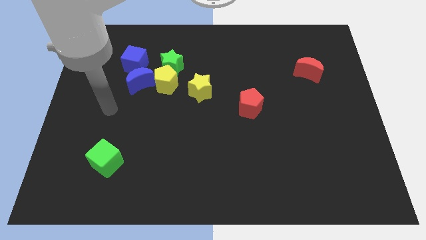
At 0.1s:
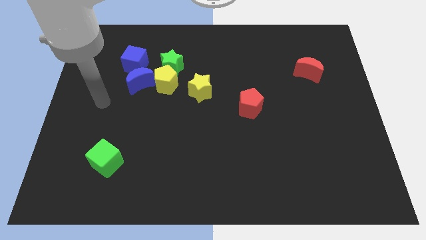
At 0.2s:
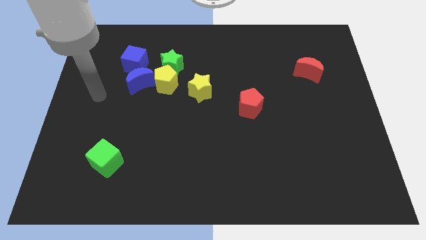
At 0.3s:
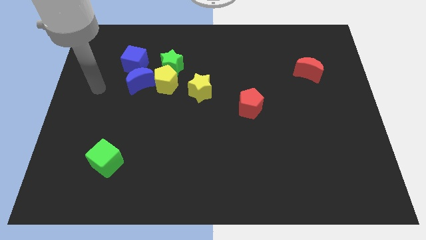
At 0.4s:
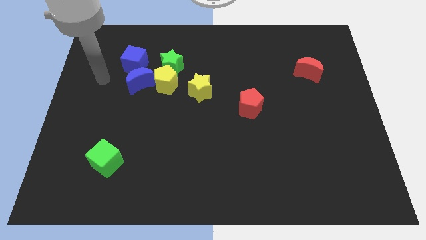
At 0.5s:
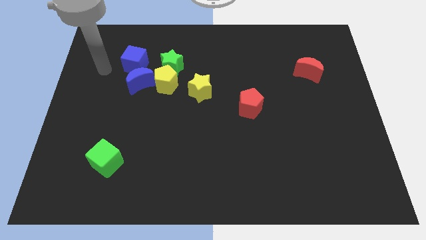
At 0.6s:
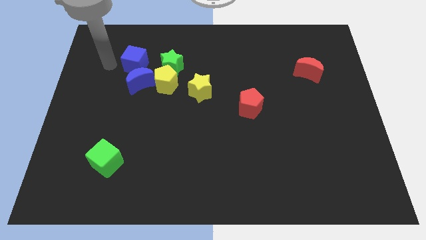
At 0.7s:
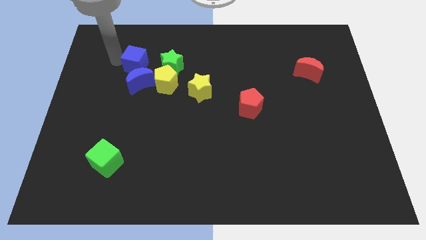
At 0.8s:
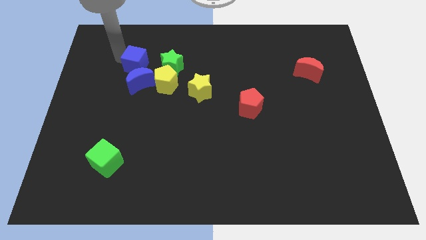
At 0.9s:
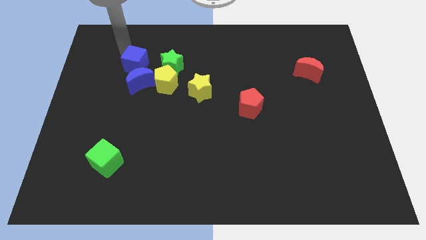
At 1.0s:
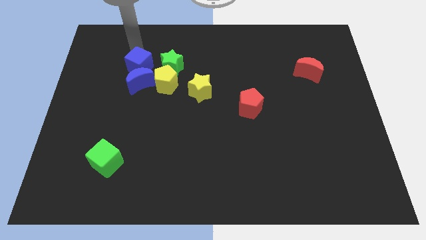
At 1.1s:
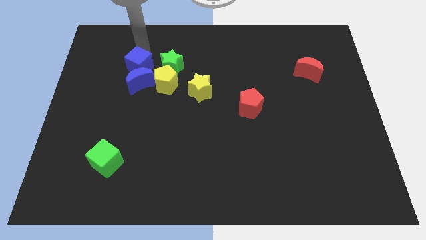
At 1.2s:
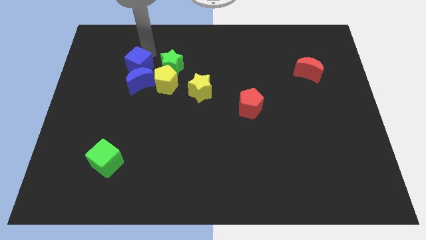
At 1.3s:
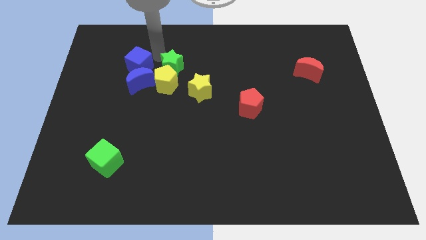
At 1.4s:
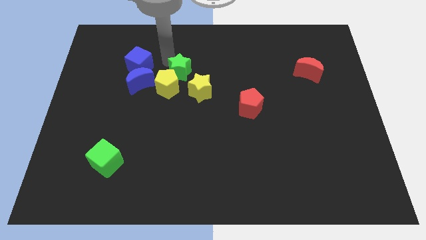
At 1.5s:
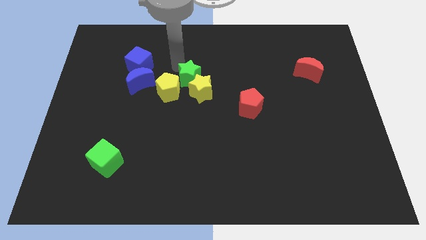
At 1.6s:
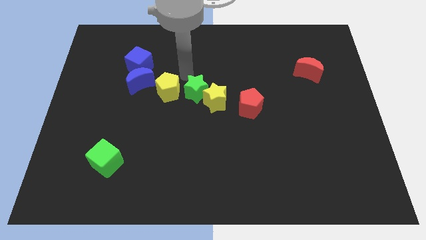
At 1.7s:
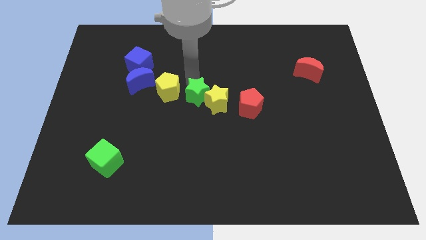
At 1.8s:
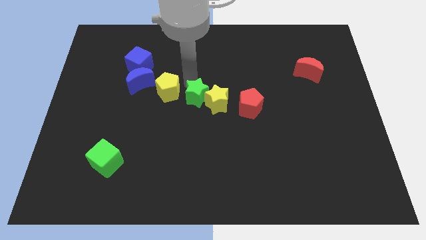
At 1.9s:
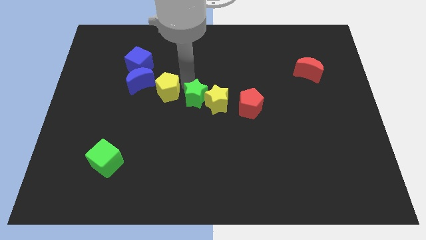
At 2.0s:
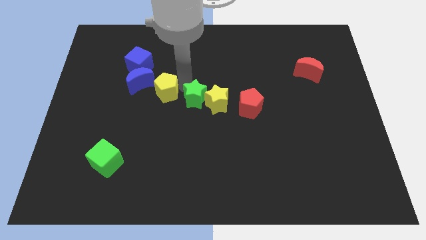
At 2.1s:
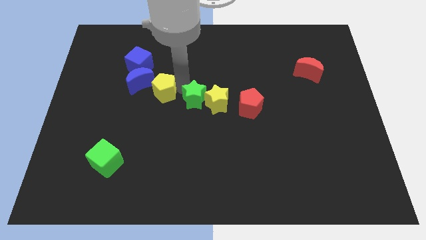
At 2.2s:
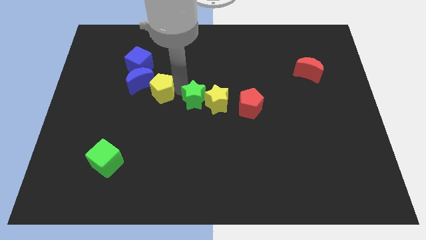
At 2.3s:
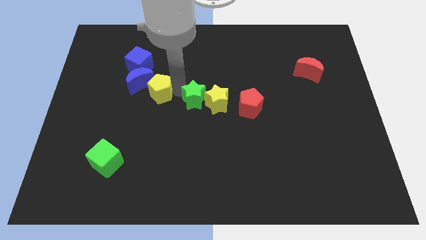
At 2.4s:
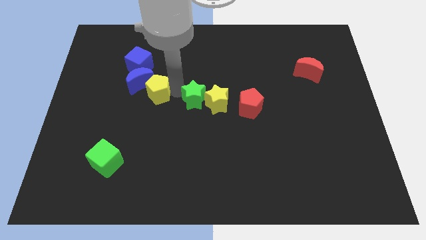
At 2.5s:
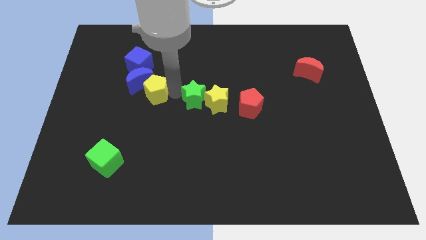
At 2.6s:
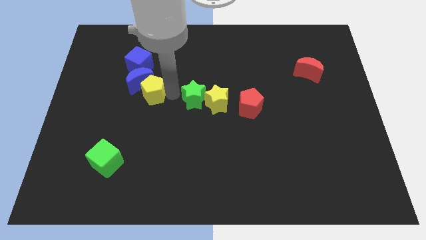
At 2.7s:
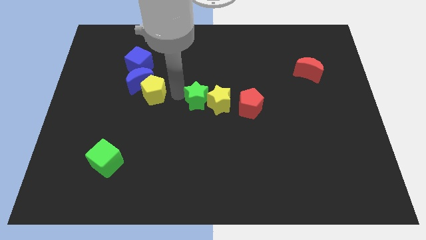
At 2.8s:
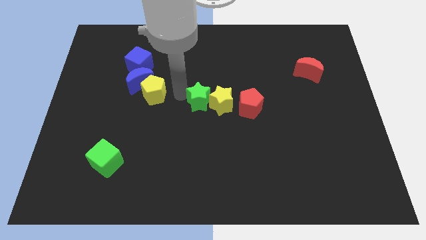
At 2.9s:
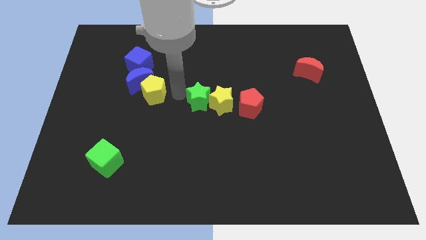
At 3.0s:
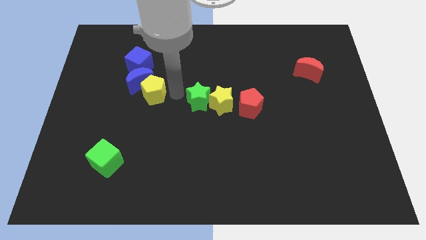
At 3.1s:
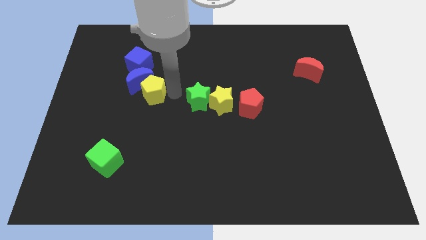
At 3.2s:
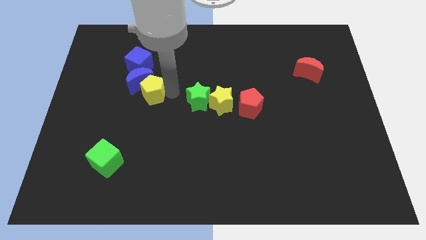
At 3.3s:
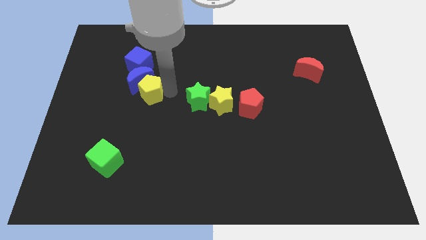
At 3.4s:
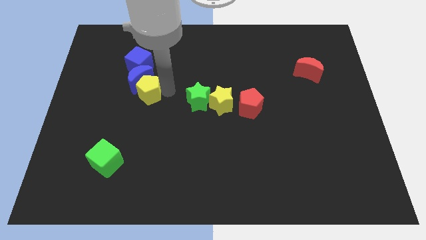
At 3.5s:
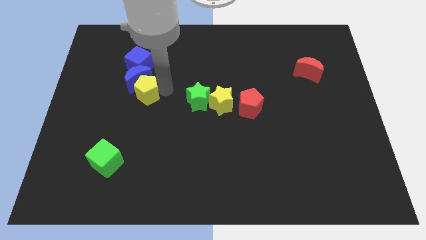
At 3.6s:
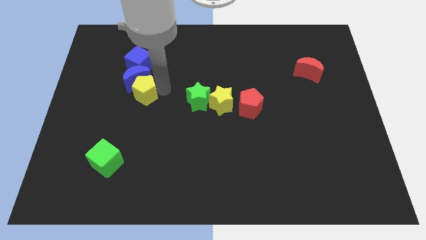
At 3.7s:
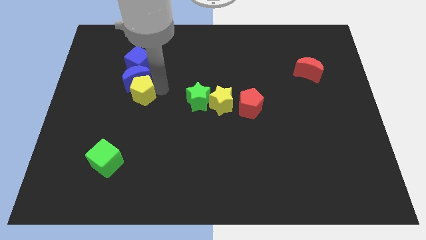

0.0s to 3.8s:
pull the yellow pentagon apart from the clump

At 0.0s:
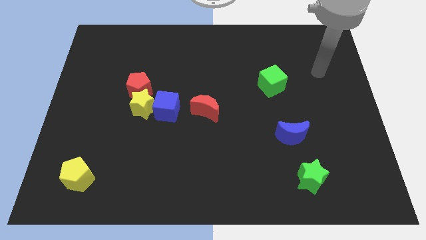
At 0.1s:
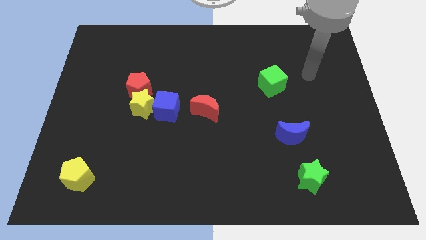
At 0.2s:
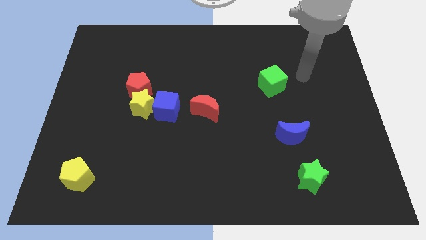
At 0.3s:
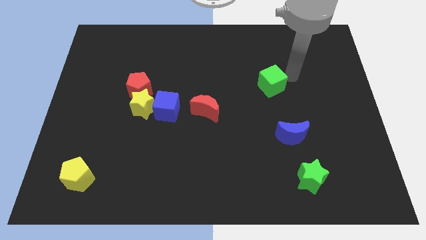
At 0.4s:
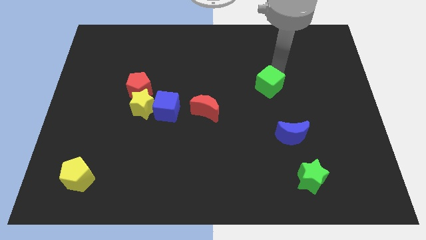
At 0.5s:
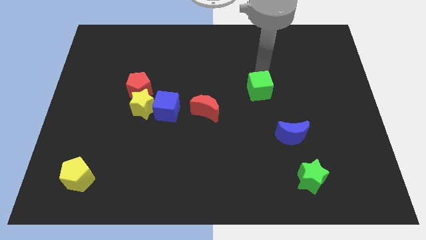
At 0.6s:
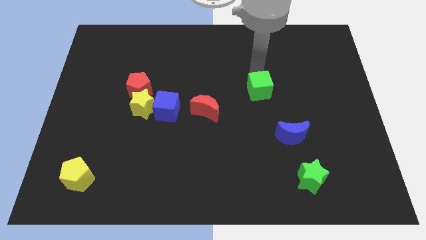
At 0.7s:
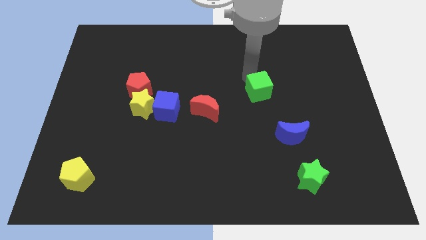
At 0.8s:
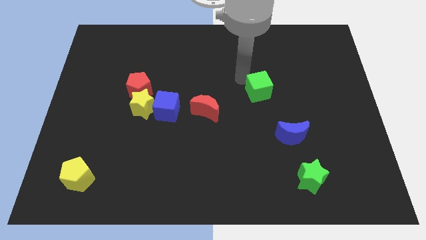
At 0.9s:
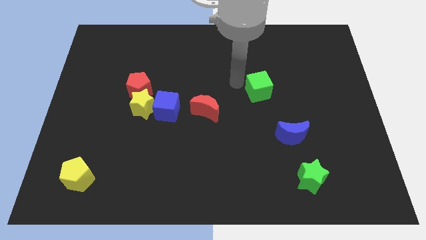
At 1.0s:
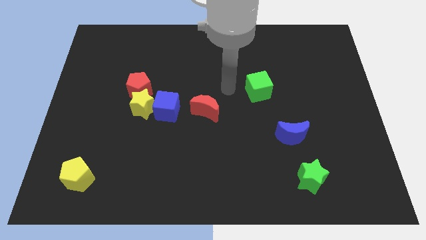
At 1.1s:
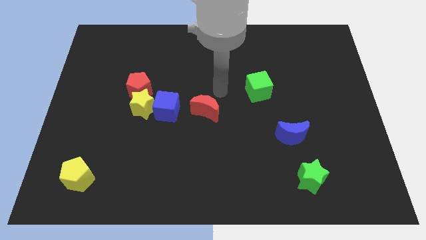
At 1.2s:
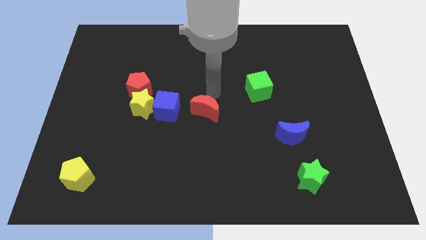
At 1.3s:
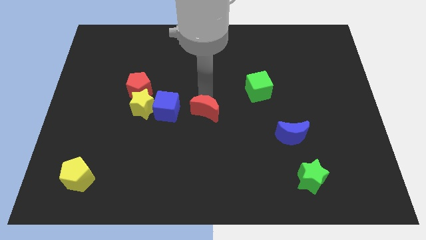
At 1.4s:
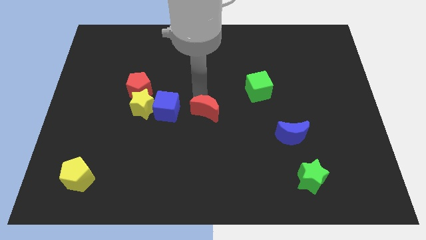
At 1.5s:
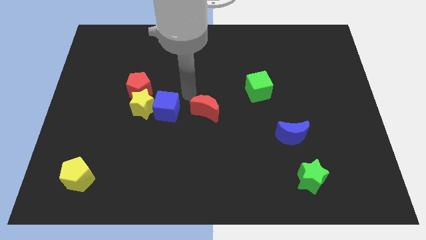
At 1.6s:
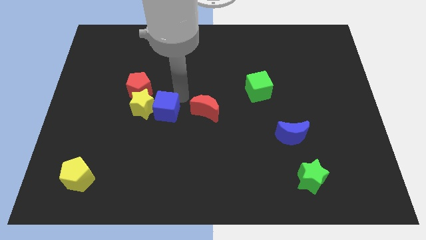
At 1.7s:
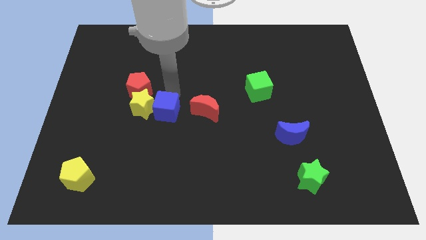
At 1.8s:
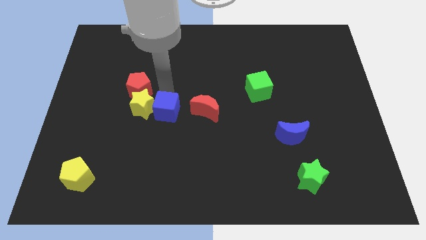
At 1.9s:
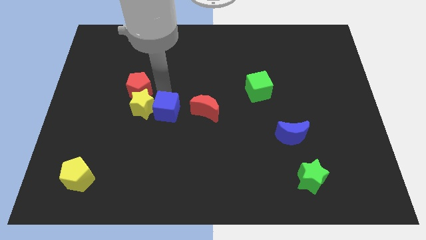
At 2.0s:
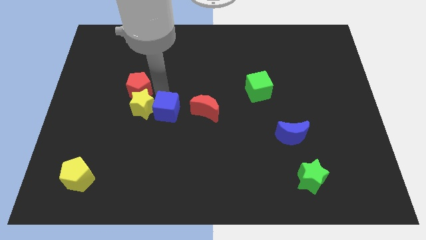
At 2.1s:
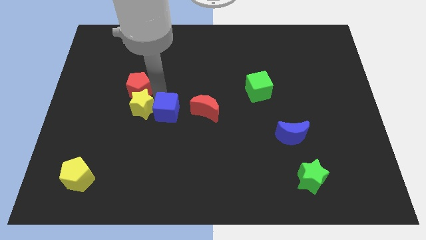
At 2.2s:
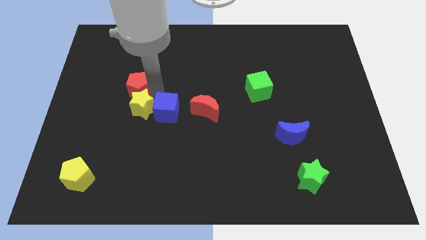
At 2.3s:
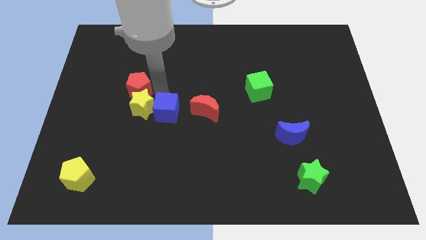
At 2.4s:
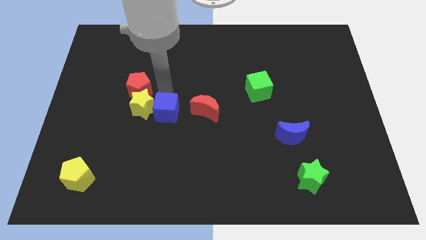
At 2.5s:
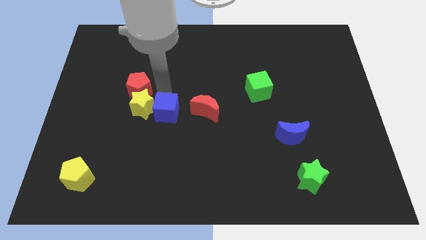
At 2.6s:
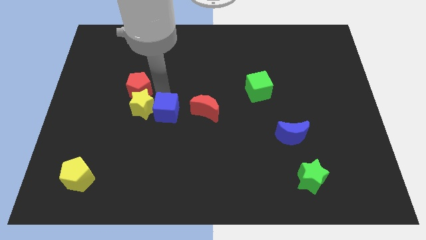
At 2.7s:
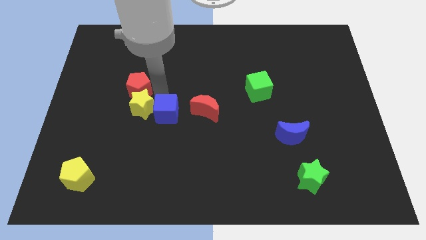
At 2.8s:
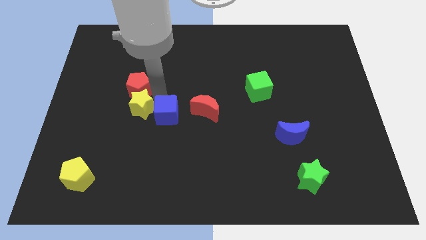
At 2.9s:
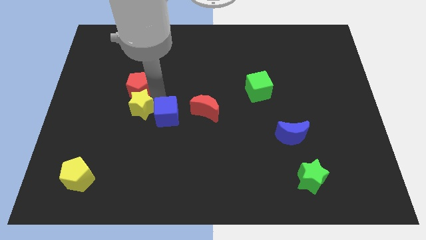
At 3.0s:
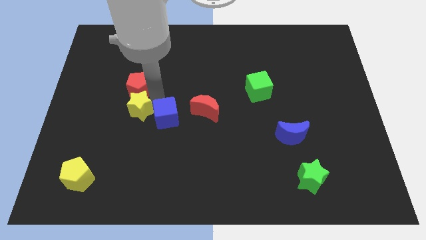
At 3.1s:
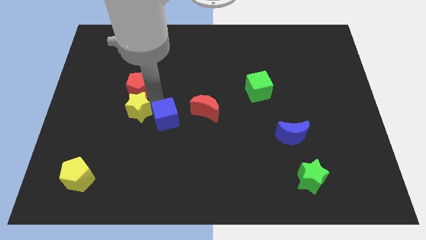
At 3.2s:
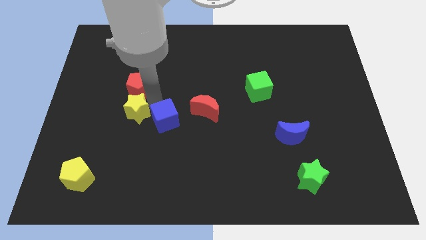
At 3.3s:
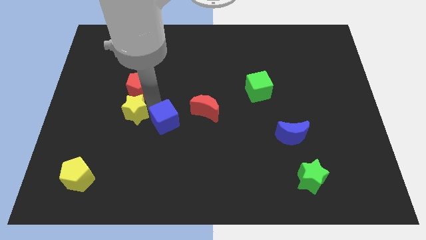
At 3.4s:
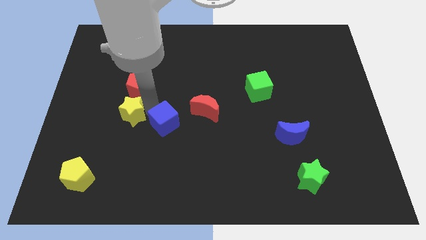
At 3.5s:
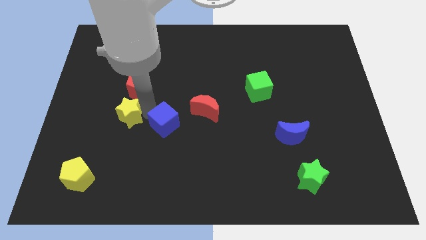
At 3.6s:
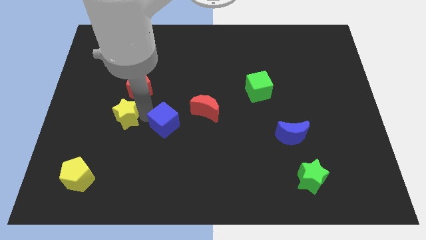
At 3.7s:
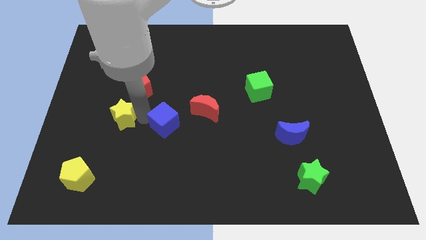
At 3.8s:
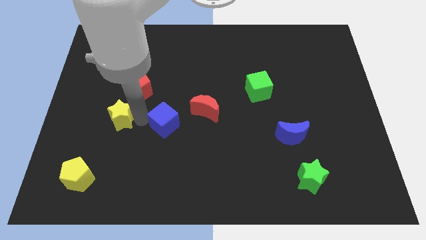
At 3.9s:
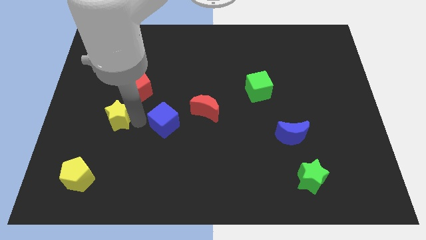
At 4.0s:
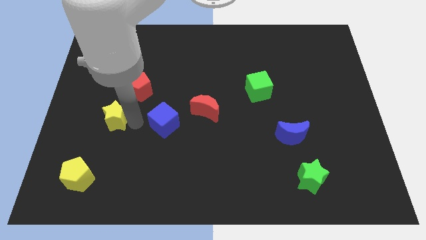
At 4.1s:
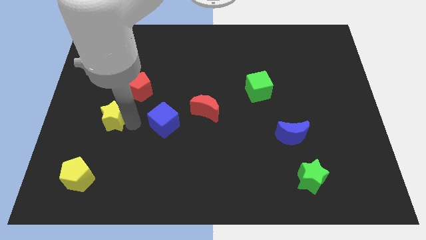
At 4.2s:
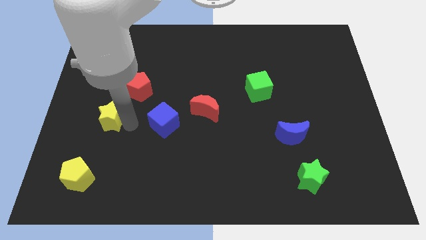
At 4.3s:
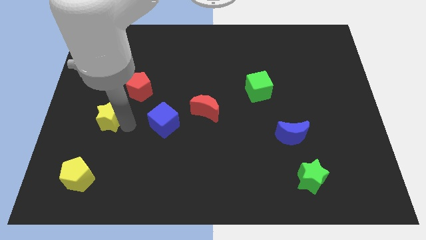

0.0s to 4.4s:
separate the yellow star from the blue cube and red pentagon

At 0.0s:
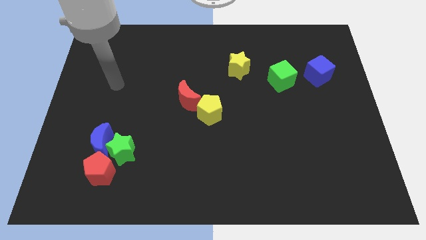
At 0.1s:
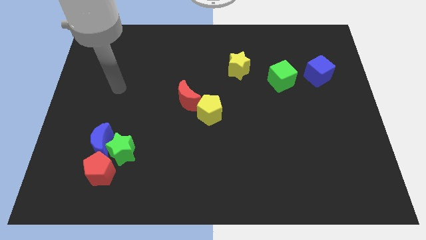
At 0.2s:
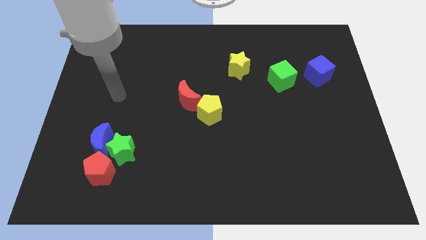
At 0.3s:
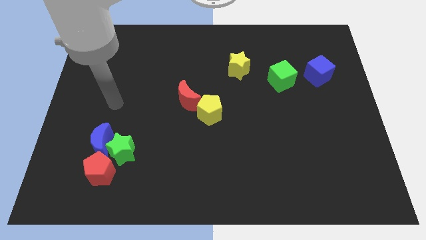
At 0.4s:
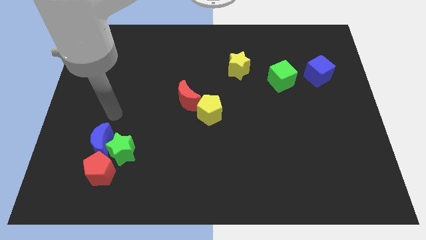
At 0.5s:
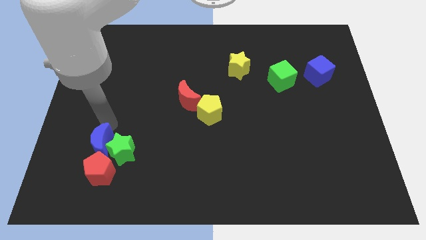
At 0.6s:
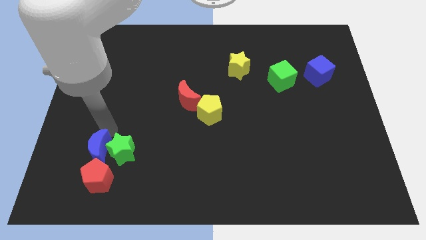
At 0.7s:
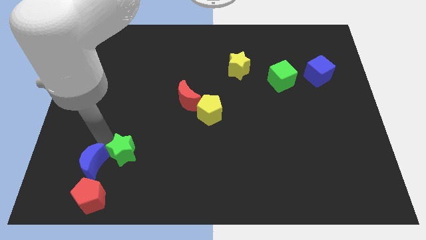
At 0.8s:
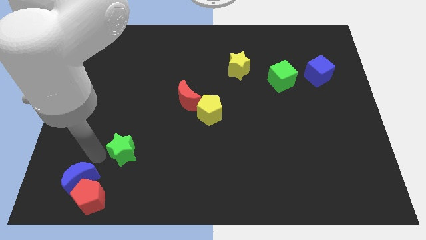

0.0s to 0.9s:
pull the green star apart from the blue moon and red pentagon

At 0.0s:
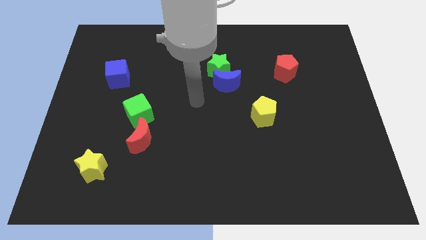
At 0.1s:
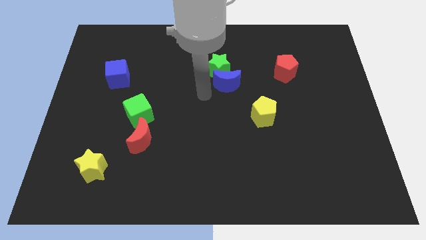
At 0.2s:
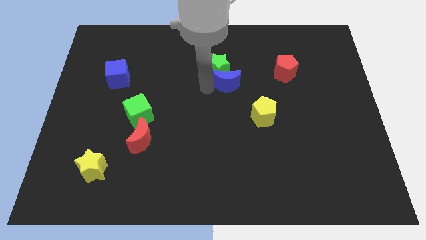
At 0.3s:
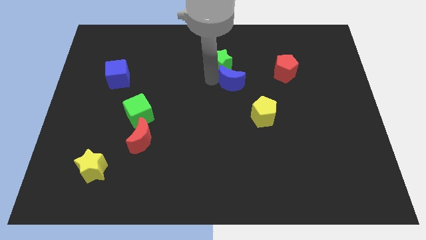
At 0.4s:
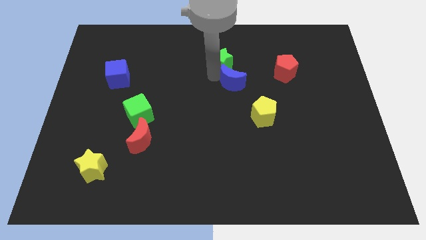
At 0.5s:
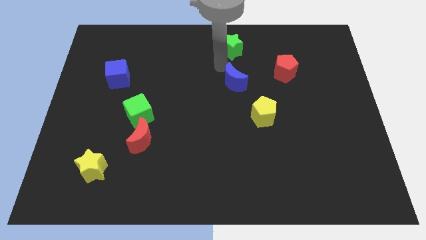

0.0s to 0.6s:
separate the blue moon from the green star
